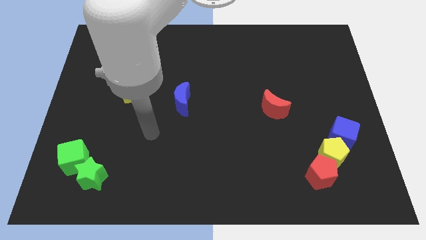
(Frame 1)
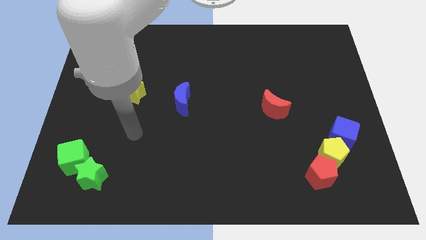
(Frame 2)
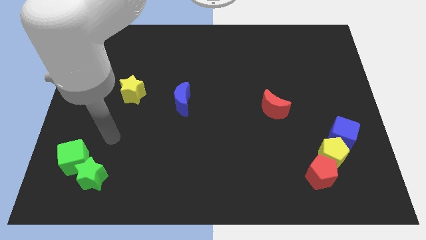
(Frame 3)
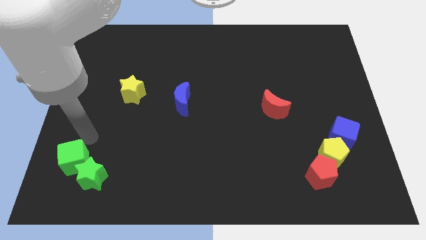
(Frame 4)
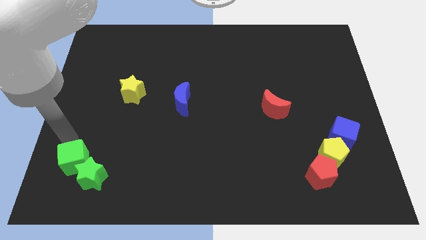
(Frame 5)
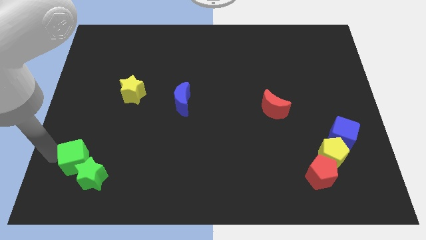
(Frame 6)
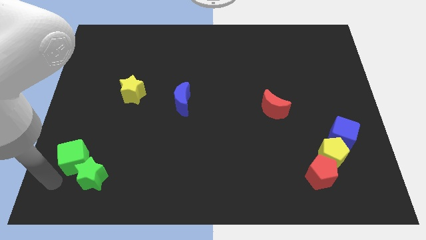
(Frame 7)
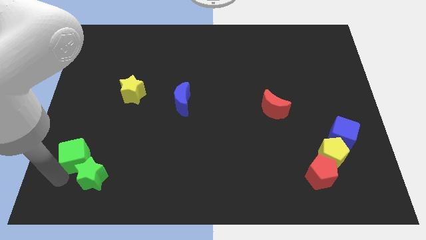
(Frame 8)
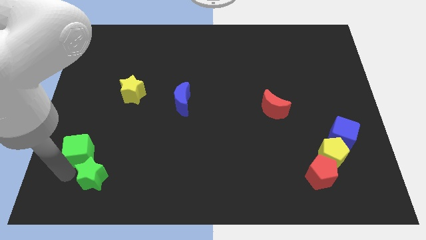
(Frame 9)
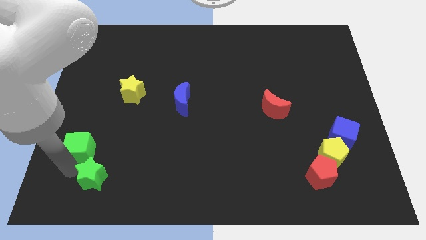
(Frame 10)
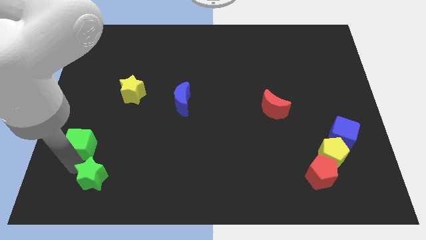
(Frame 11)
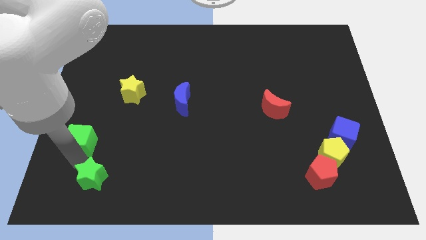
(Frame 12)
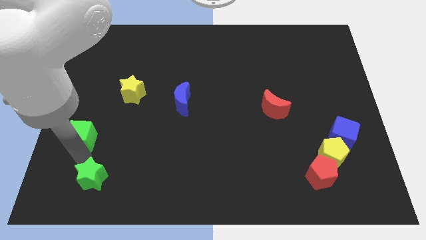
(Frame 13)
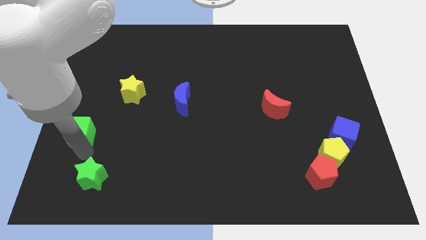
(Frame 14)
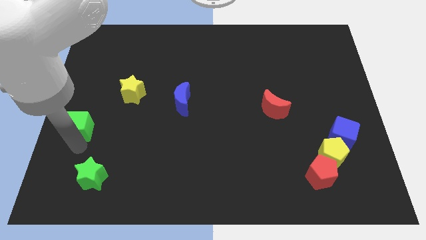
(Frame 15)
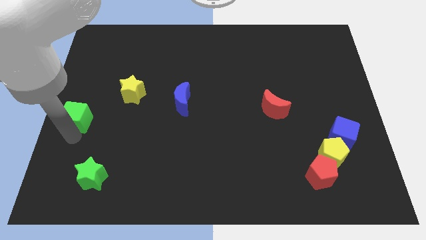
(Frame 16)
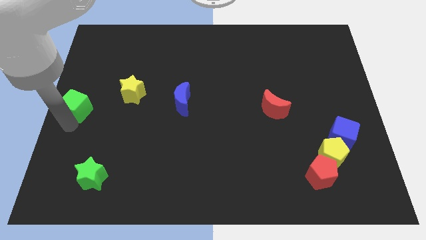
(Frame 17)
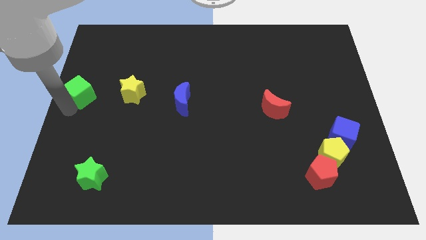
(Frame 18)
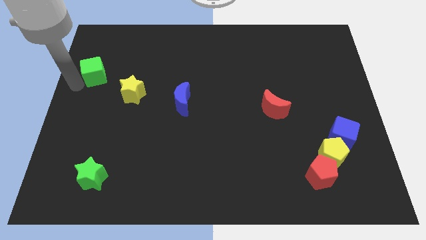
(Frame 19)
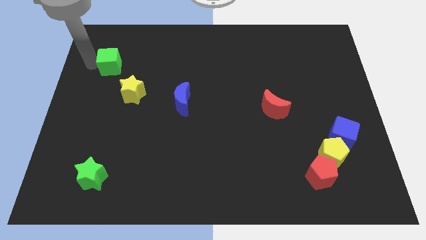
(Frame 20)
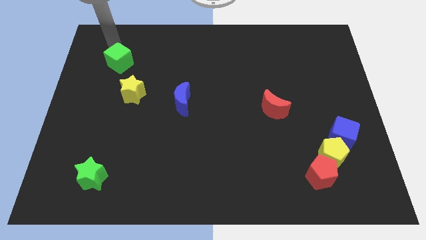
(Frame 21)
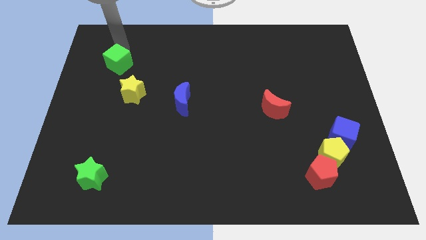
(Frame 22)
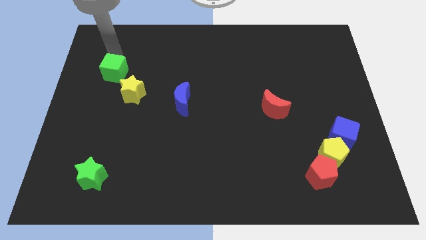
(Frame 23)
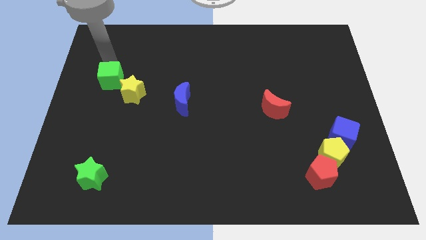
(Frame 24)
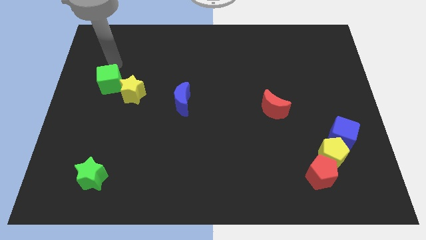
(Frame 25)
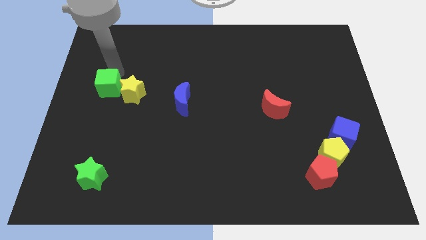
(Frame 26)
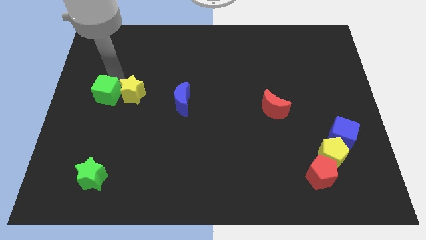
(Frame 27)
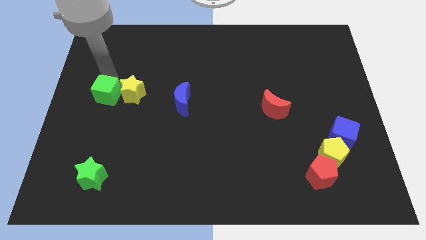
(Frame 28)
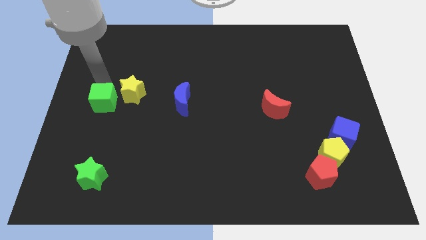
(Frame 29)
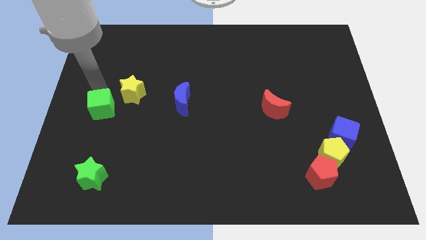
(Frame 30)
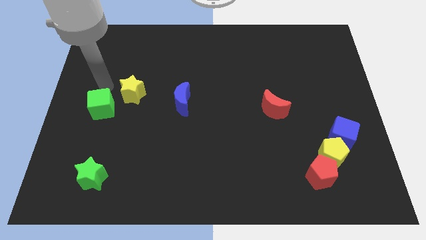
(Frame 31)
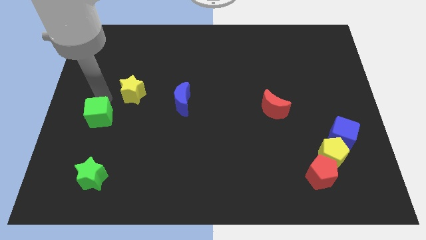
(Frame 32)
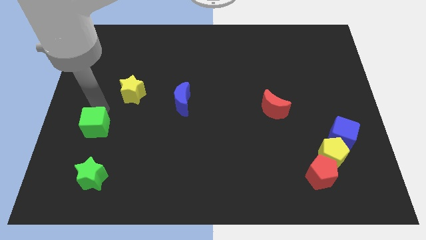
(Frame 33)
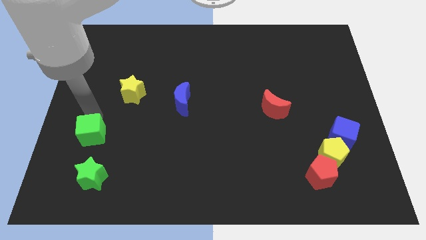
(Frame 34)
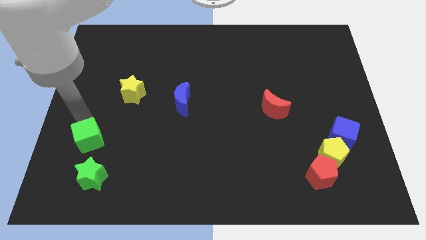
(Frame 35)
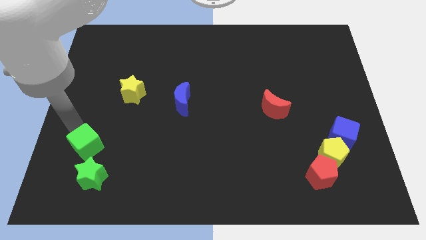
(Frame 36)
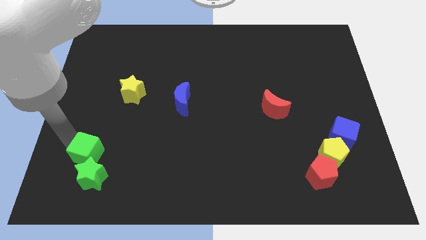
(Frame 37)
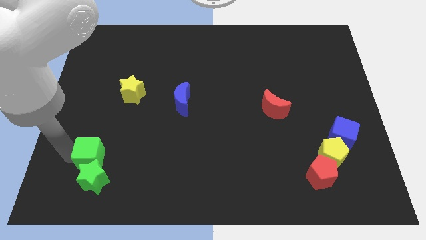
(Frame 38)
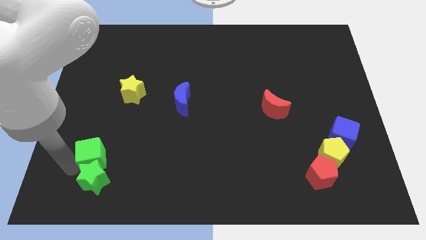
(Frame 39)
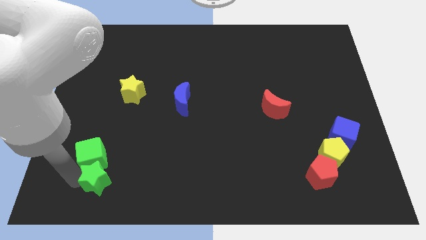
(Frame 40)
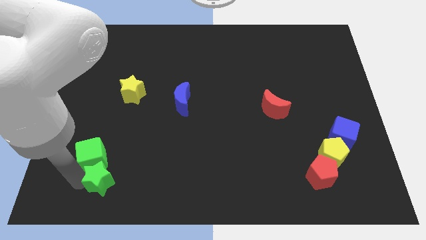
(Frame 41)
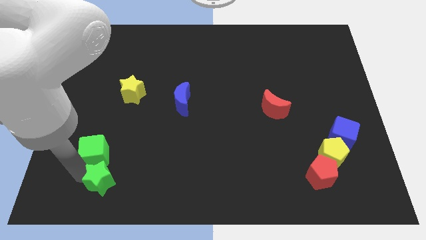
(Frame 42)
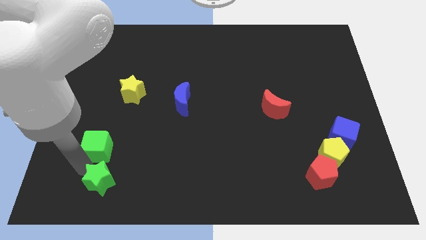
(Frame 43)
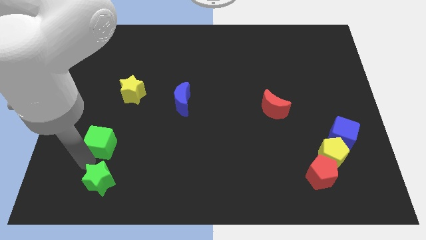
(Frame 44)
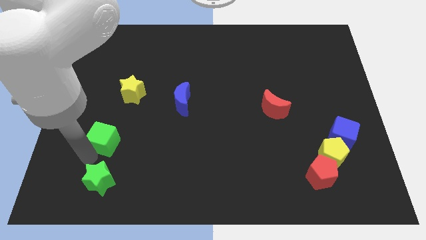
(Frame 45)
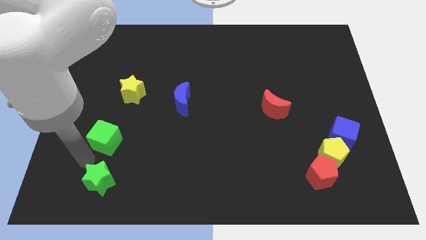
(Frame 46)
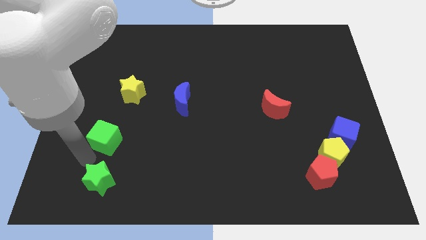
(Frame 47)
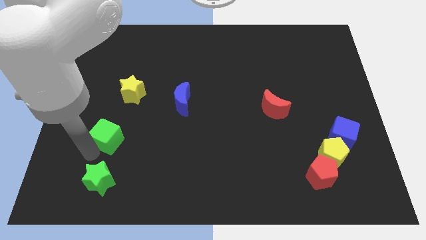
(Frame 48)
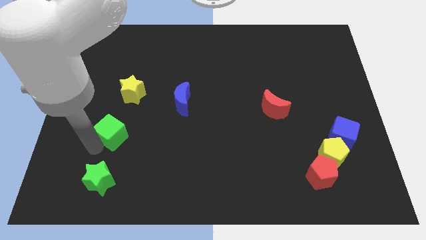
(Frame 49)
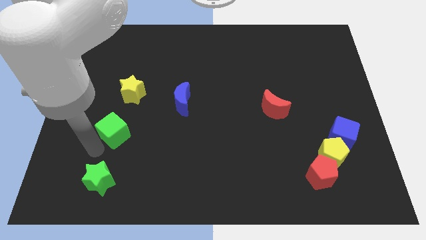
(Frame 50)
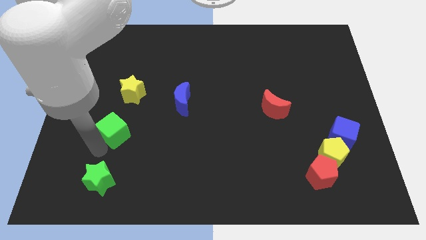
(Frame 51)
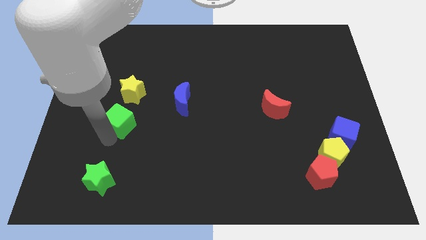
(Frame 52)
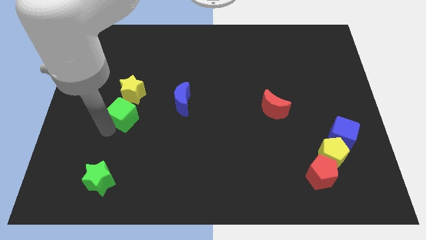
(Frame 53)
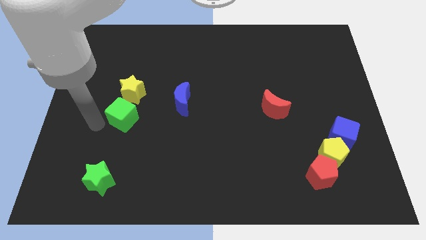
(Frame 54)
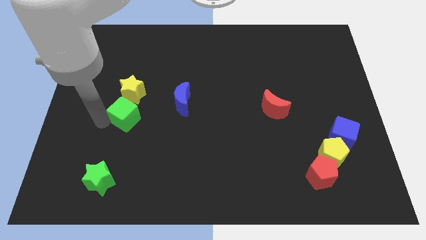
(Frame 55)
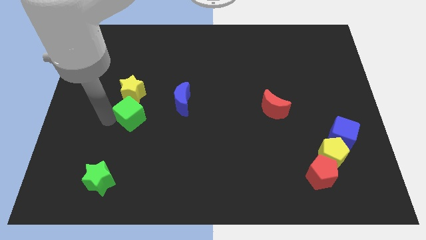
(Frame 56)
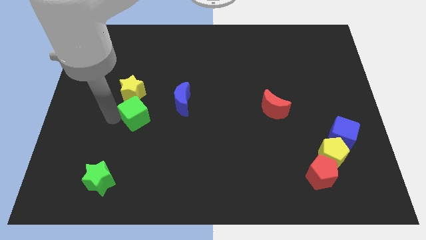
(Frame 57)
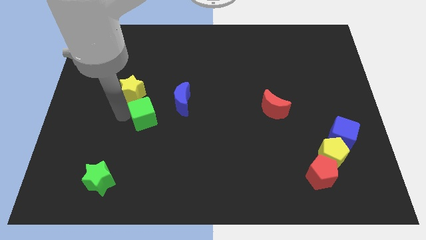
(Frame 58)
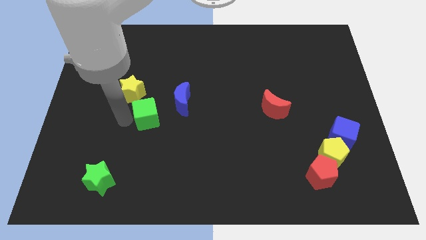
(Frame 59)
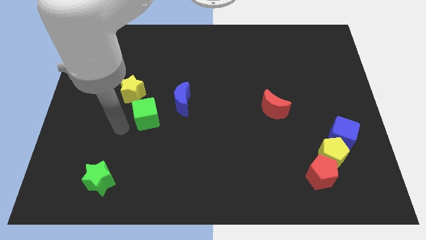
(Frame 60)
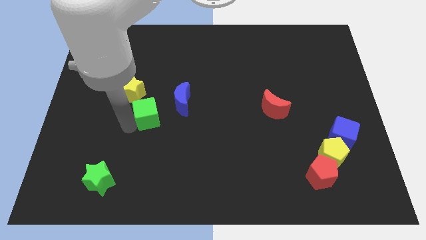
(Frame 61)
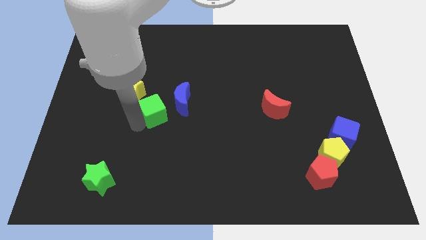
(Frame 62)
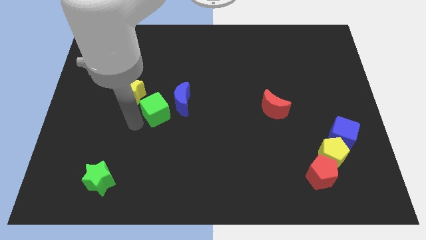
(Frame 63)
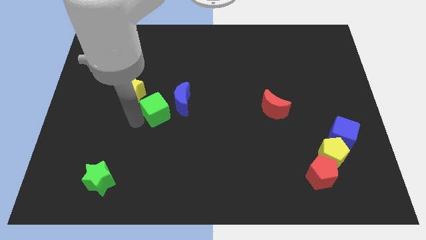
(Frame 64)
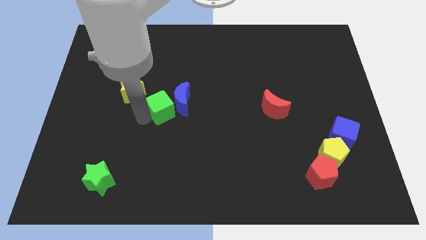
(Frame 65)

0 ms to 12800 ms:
put the green cube next to the blue moon

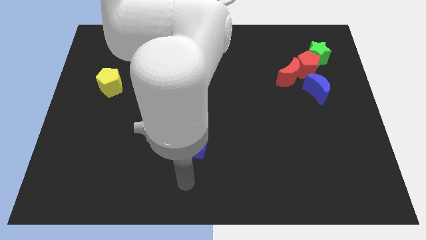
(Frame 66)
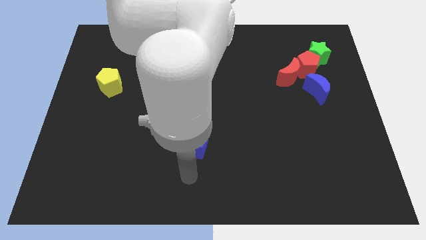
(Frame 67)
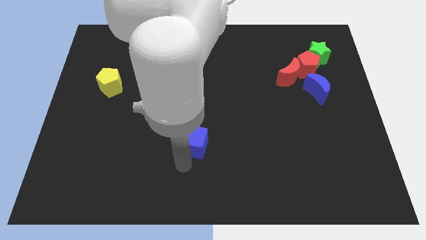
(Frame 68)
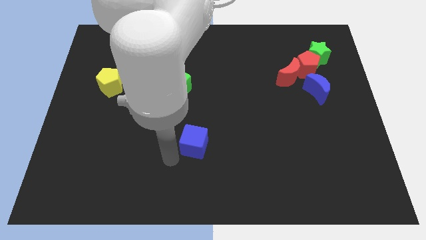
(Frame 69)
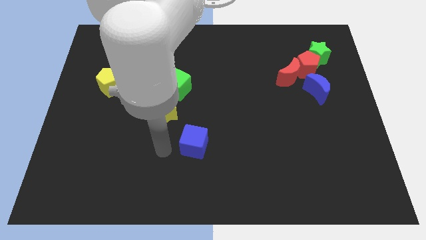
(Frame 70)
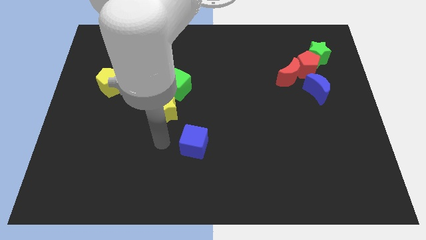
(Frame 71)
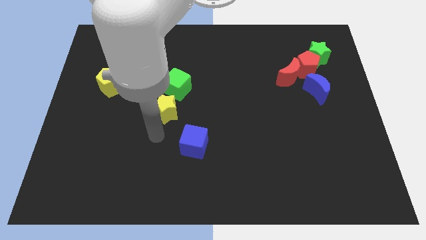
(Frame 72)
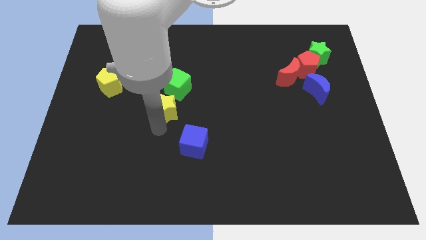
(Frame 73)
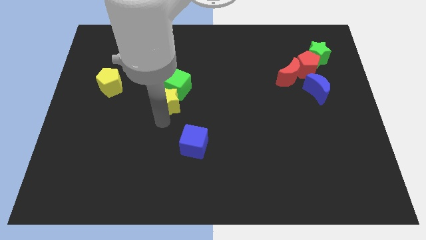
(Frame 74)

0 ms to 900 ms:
move the yellow star to the green cube

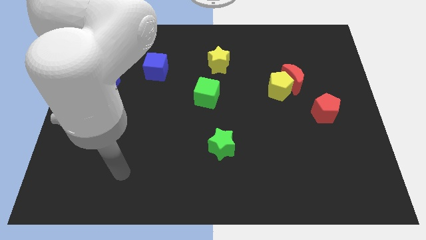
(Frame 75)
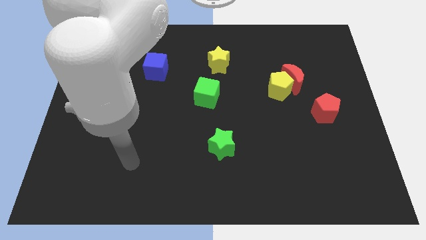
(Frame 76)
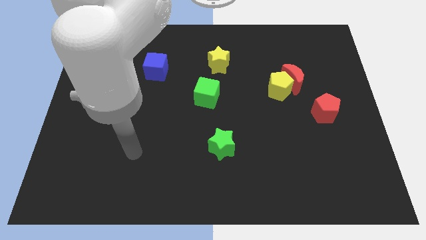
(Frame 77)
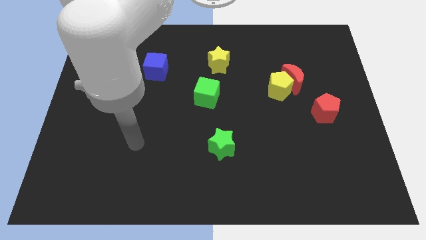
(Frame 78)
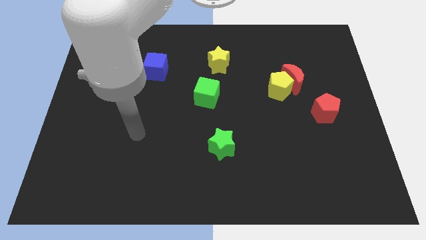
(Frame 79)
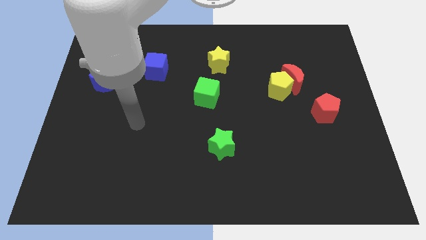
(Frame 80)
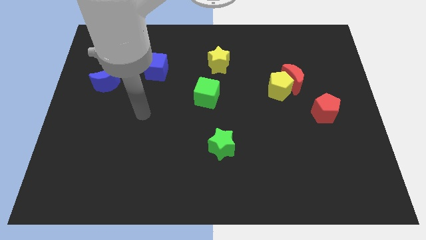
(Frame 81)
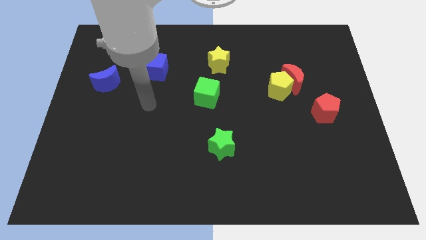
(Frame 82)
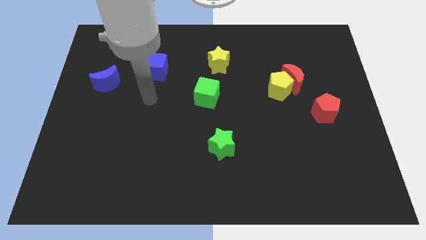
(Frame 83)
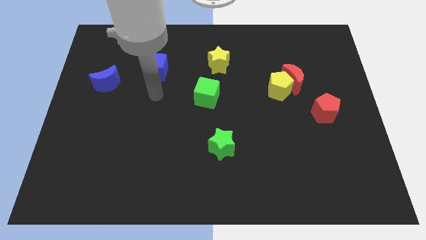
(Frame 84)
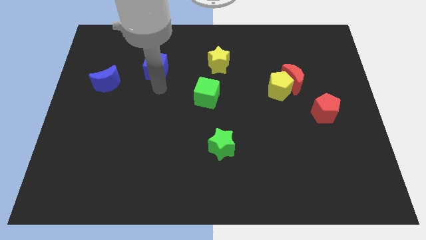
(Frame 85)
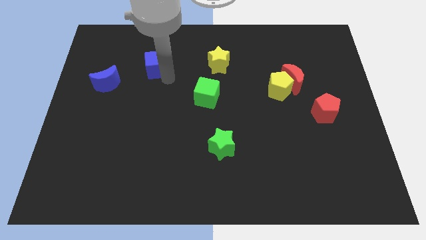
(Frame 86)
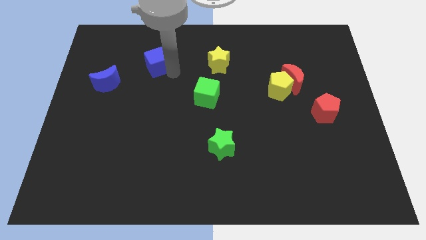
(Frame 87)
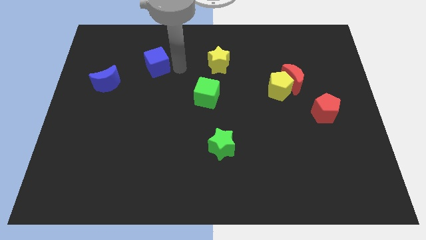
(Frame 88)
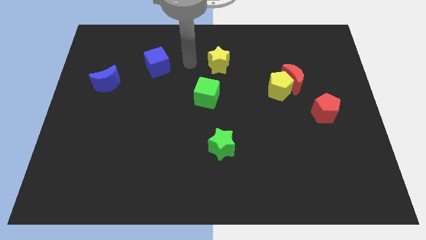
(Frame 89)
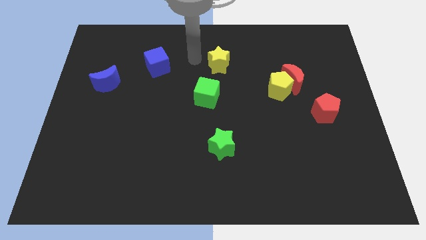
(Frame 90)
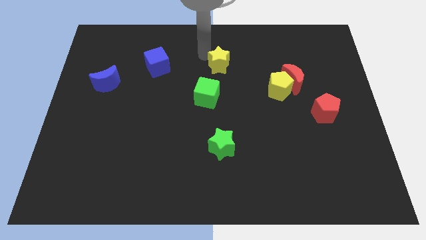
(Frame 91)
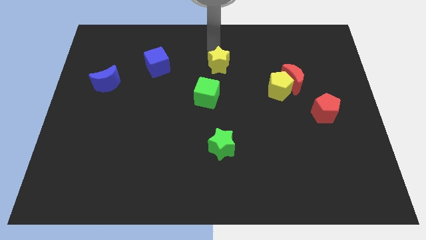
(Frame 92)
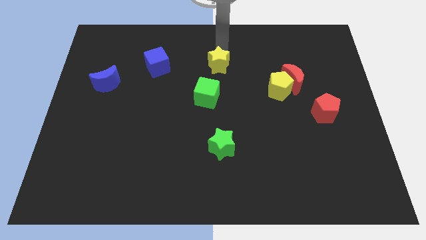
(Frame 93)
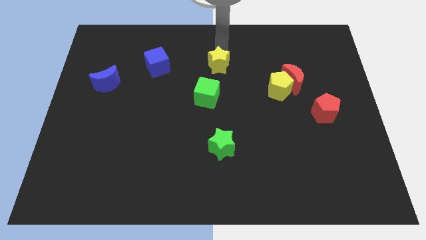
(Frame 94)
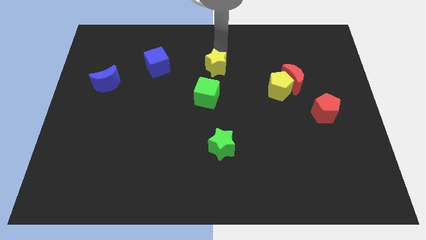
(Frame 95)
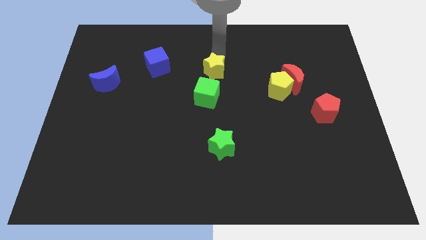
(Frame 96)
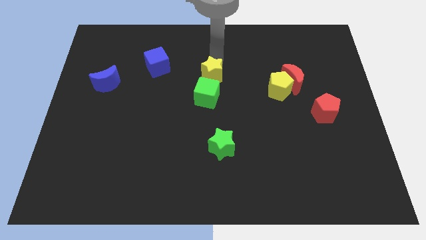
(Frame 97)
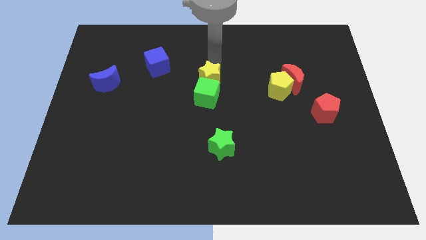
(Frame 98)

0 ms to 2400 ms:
push the yellow star next to the green cube
